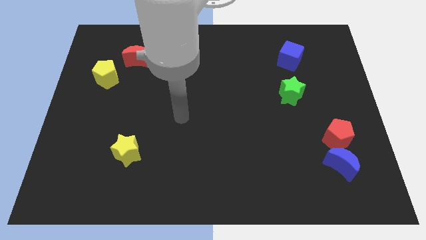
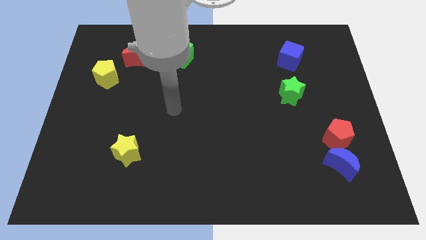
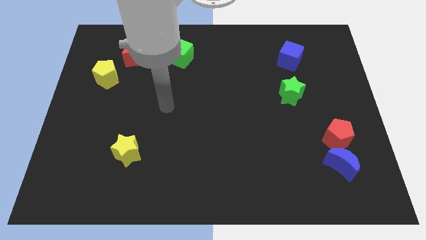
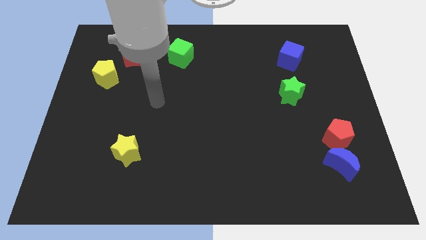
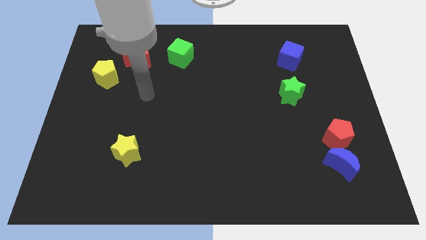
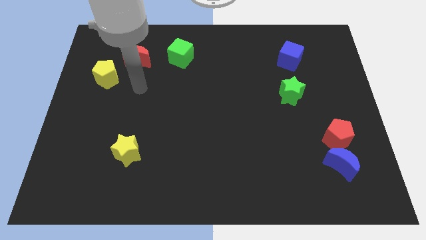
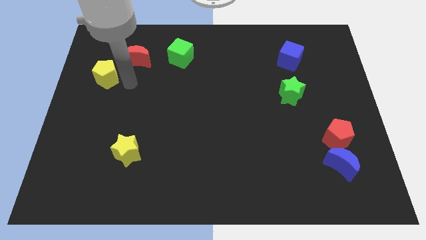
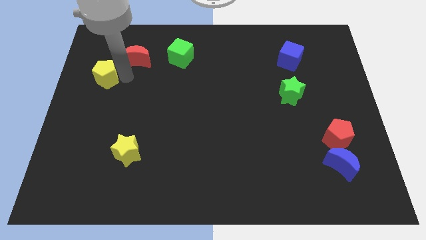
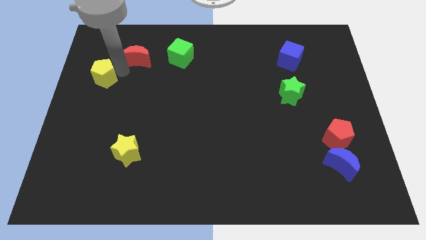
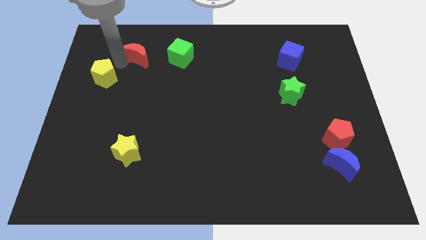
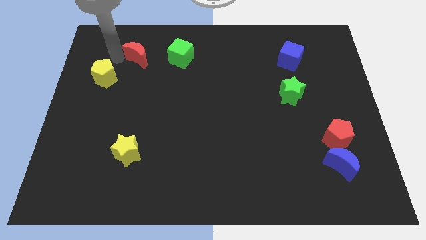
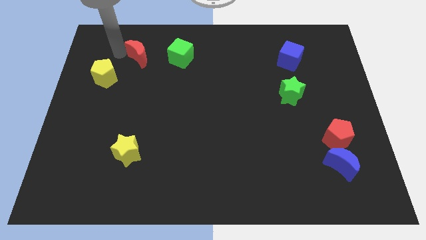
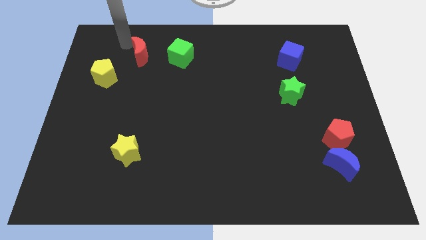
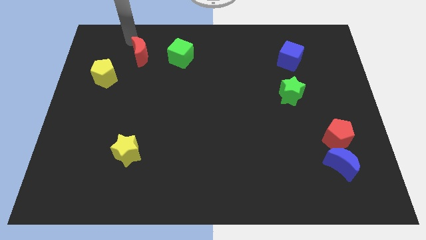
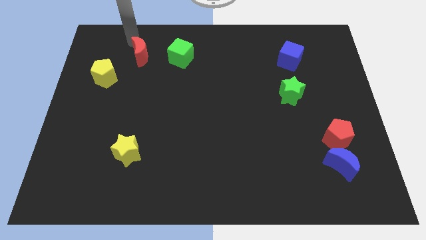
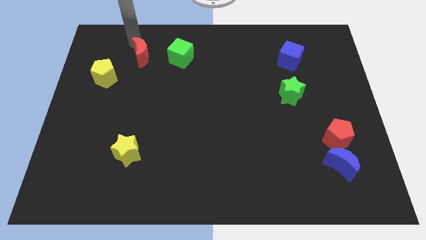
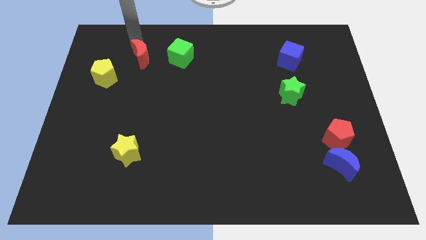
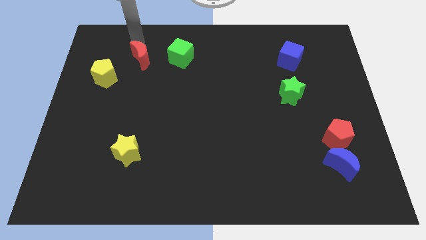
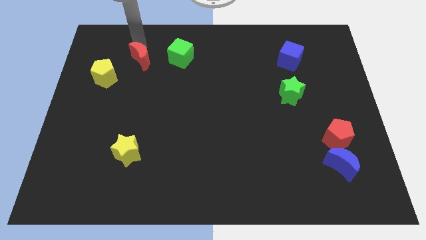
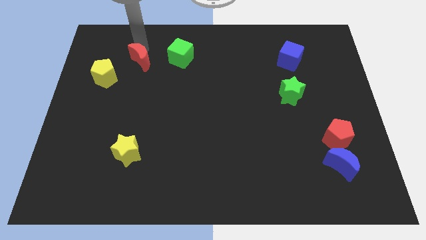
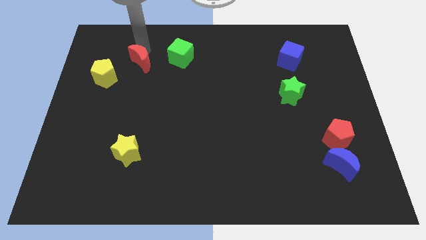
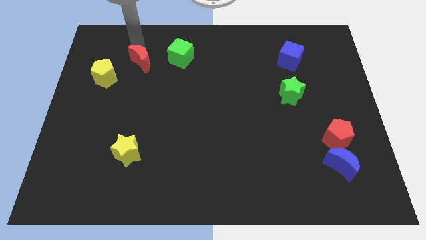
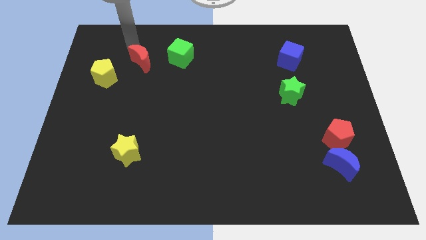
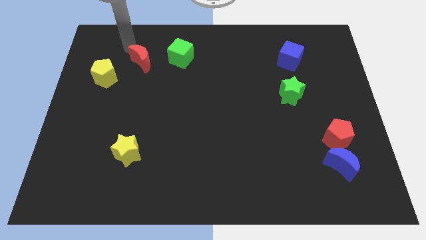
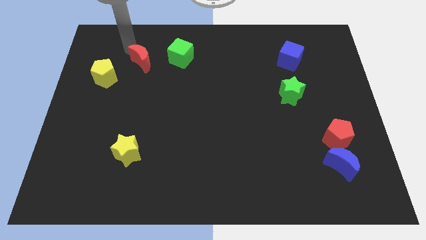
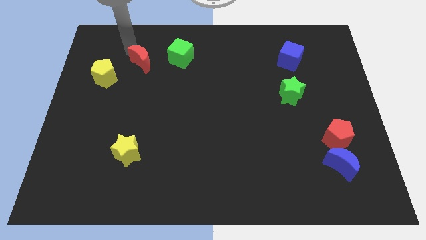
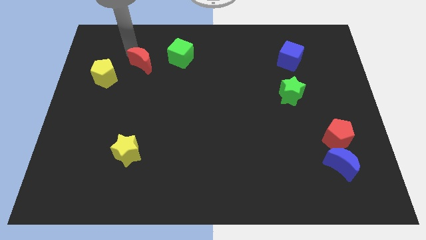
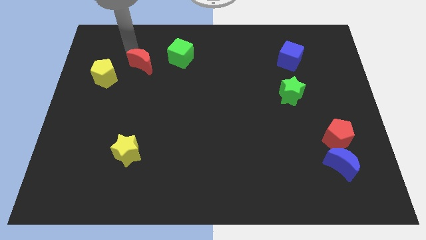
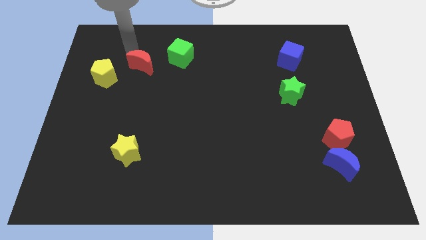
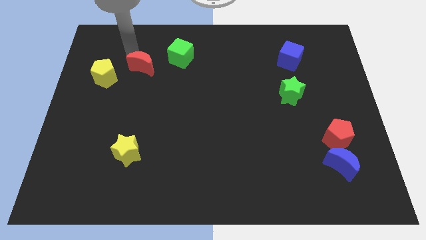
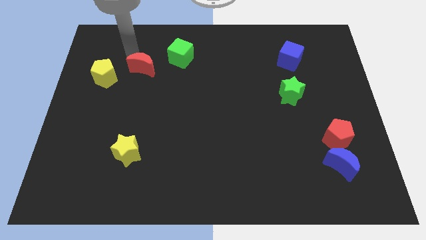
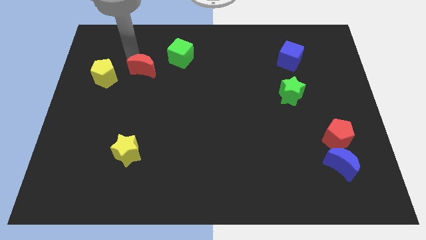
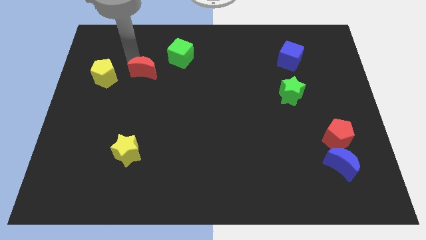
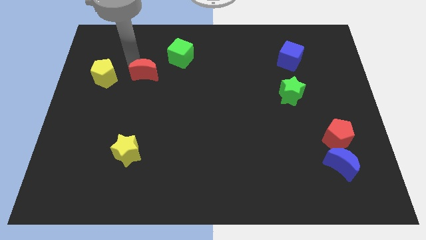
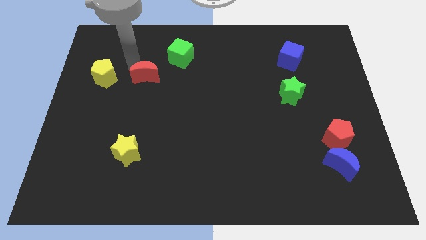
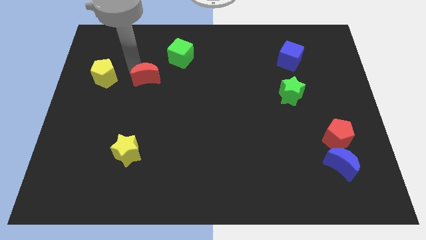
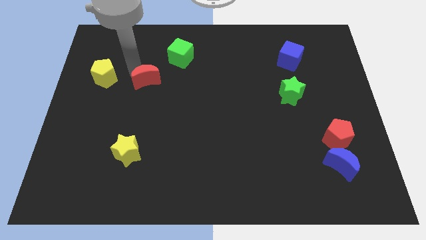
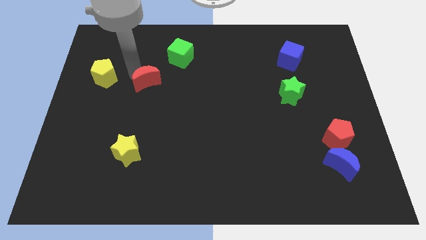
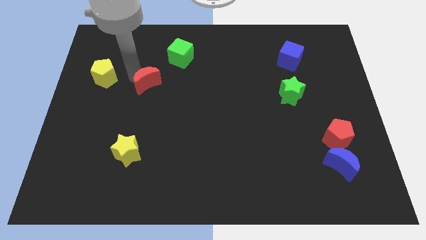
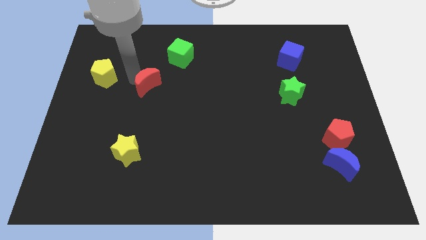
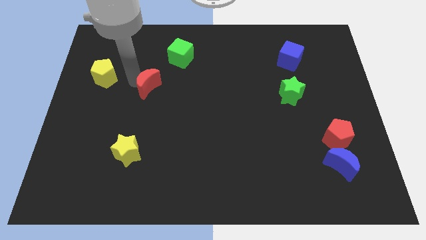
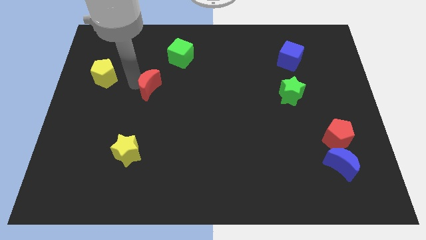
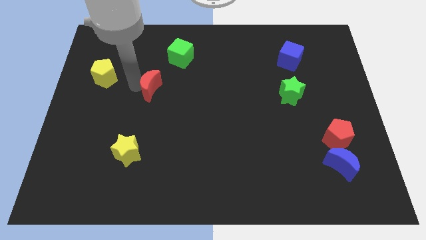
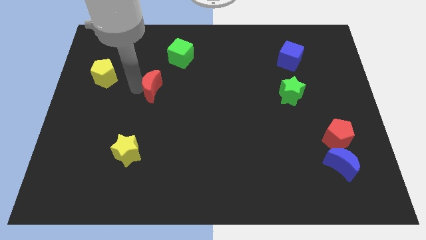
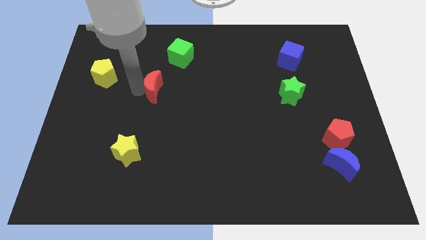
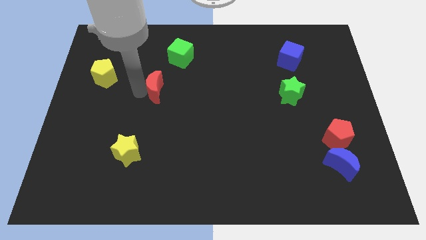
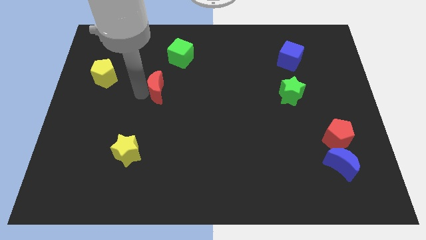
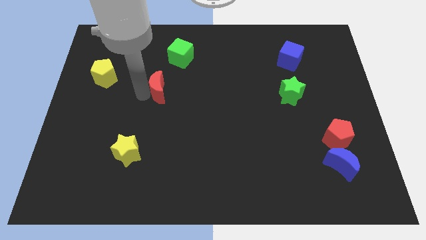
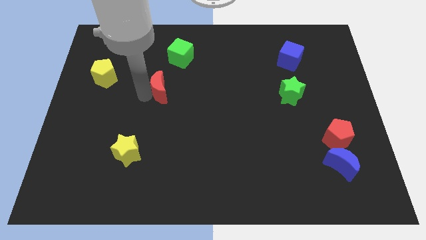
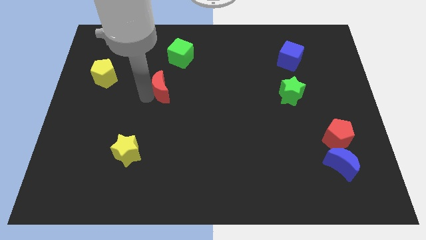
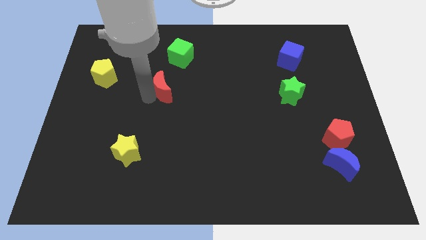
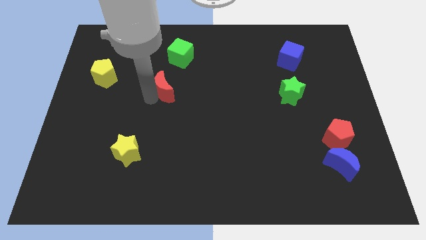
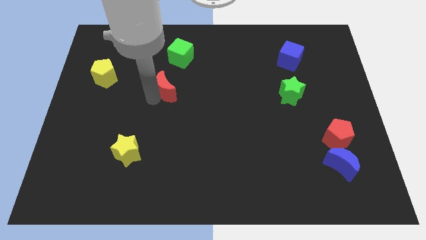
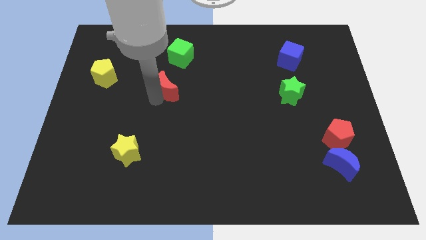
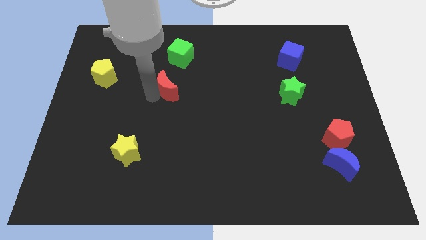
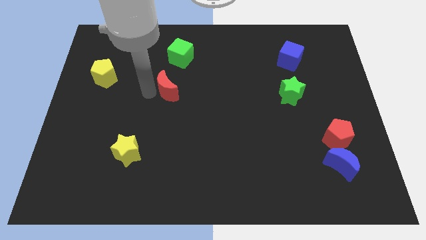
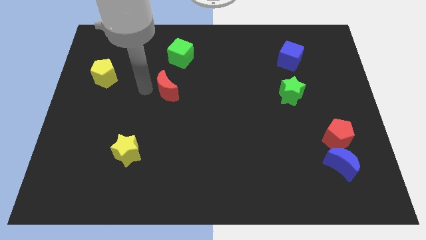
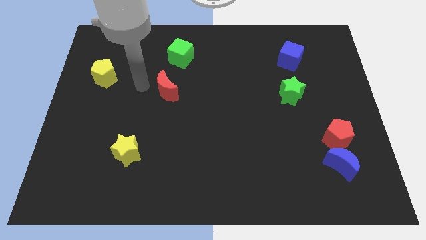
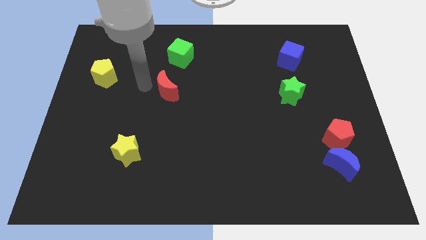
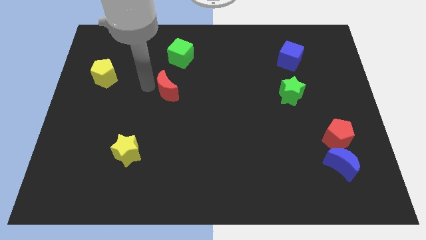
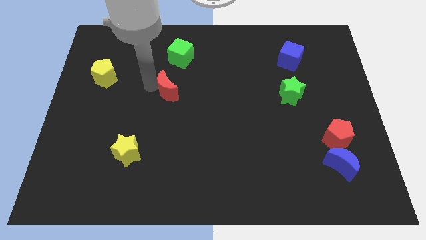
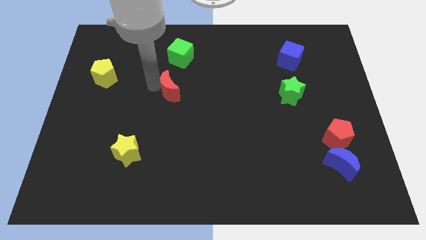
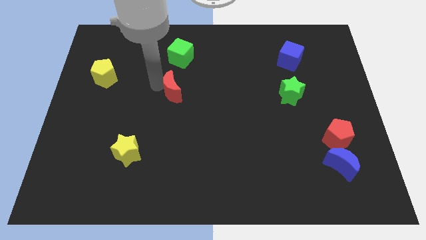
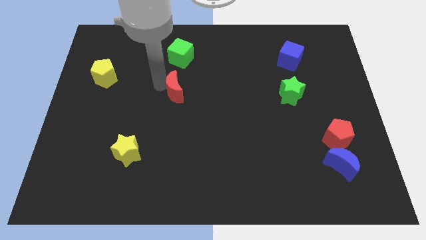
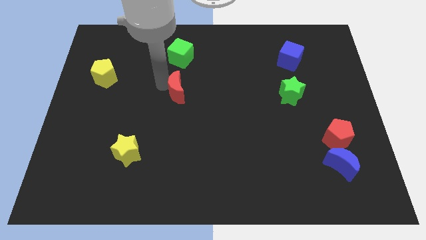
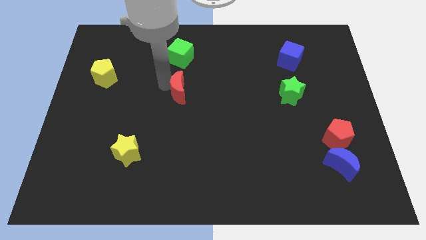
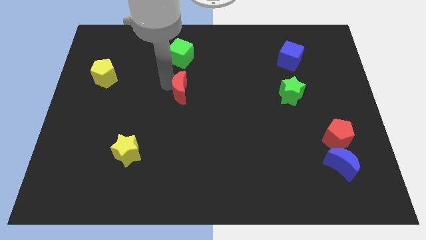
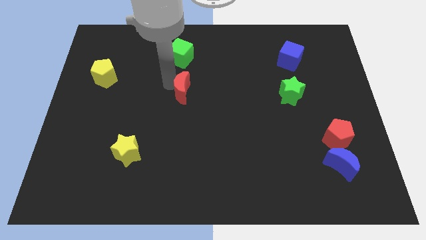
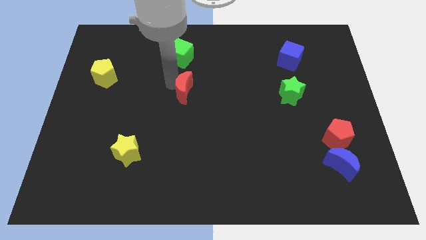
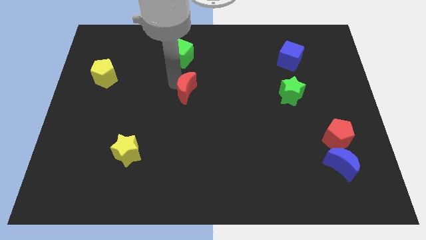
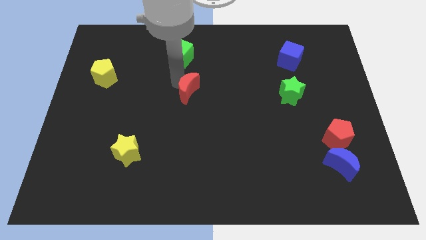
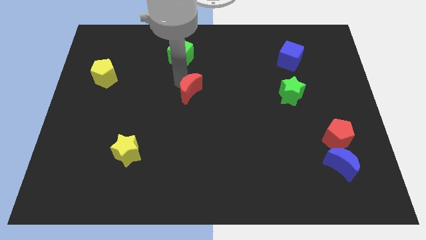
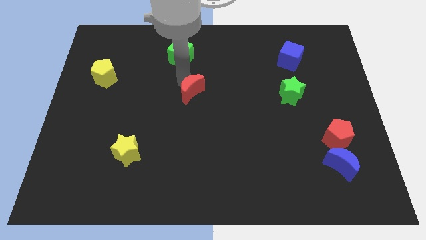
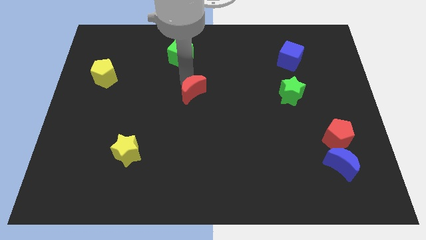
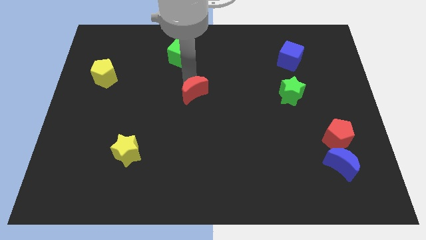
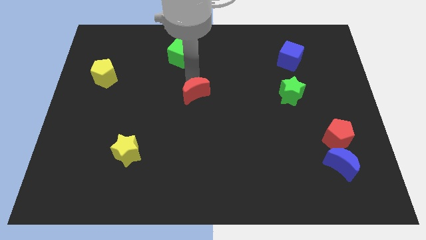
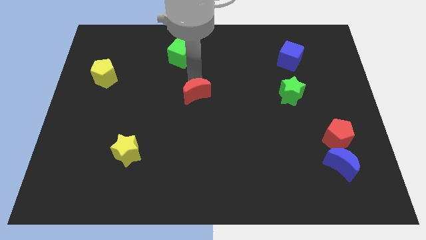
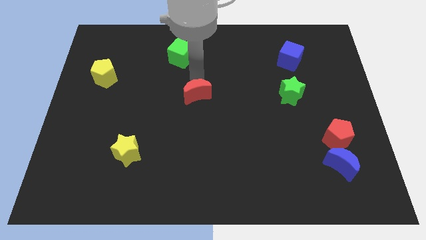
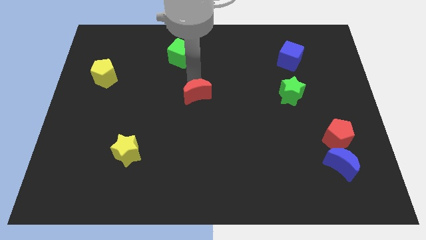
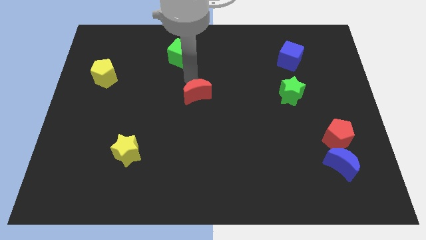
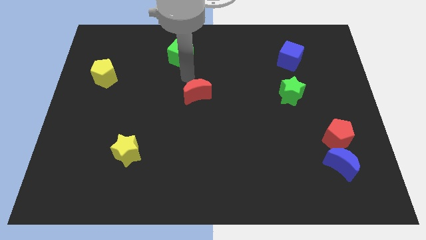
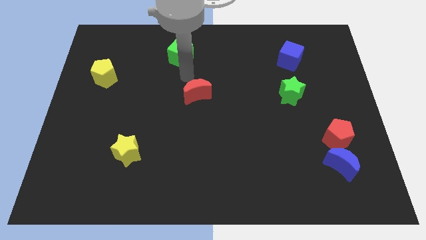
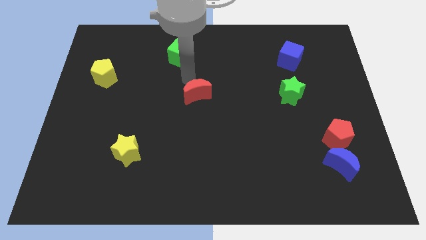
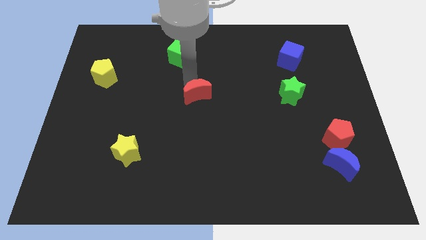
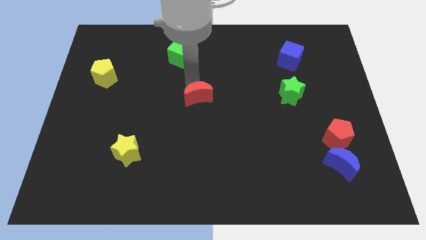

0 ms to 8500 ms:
push the red moon downwards and right diagonally
